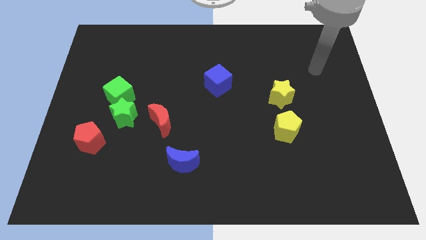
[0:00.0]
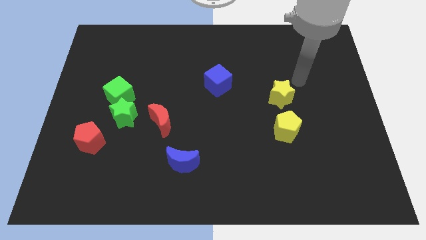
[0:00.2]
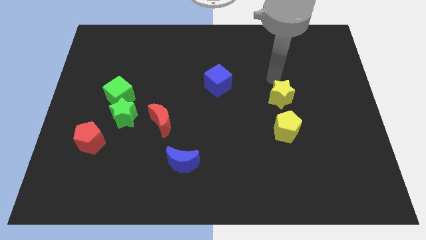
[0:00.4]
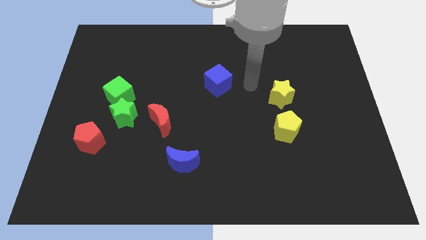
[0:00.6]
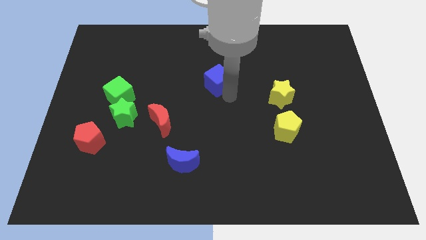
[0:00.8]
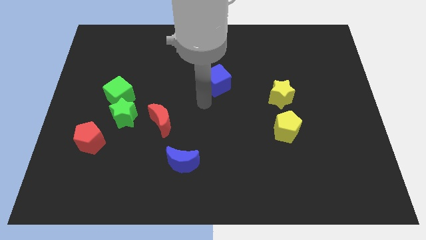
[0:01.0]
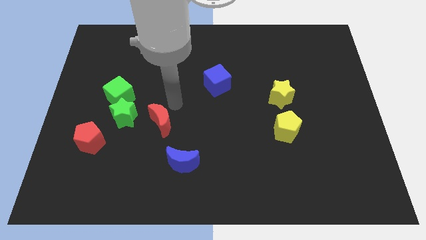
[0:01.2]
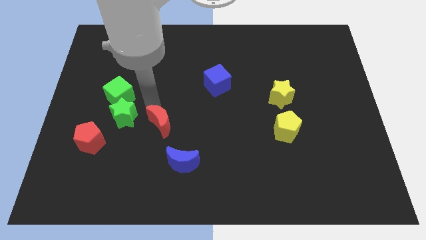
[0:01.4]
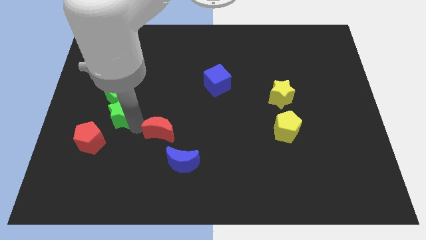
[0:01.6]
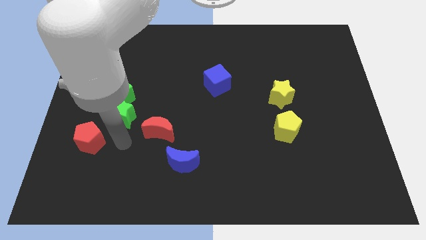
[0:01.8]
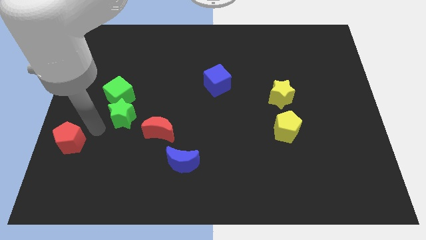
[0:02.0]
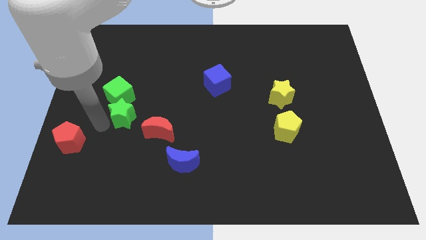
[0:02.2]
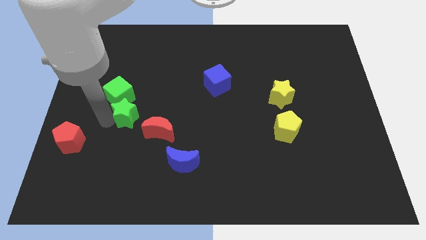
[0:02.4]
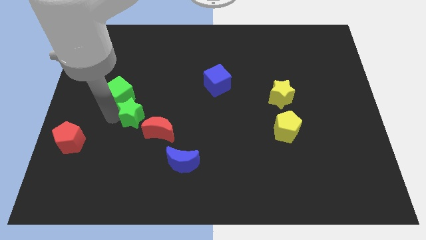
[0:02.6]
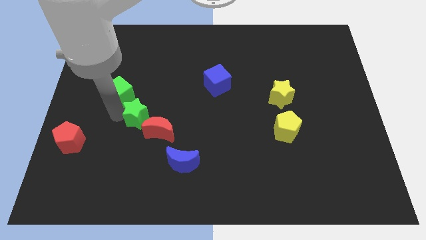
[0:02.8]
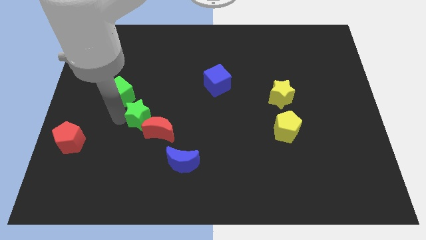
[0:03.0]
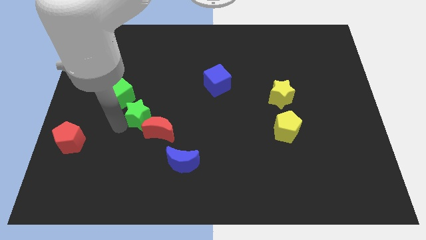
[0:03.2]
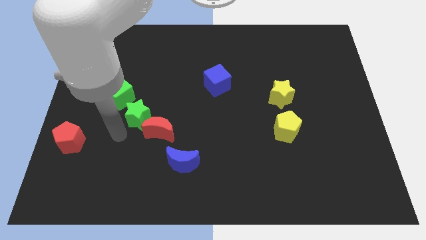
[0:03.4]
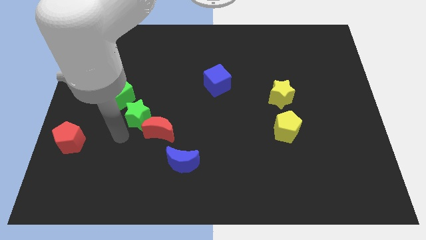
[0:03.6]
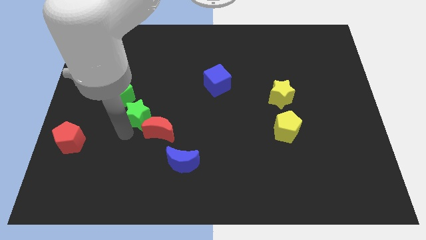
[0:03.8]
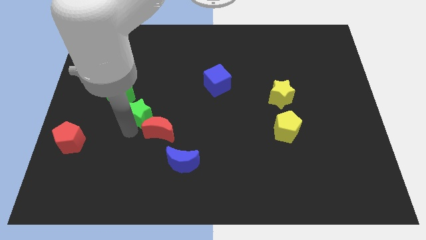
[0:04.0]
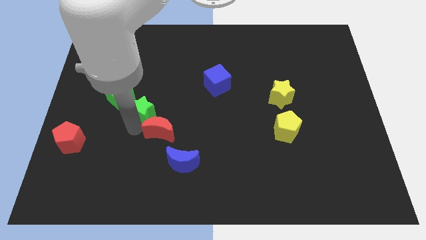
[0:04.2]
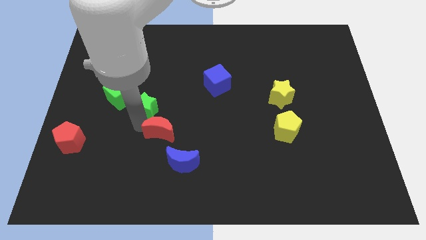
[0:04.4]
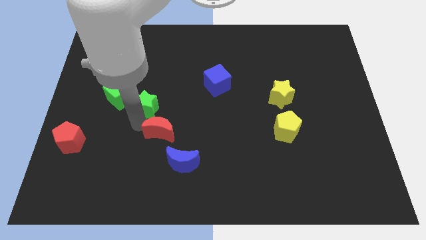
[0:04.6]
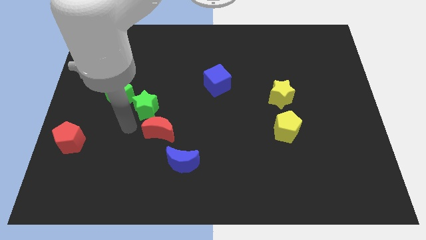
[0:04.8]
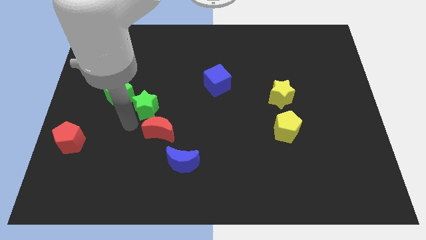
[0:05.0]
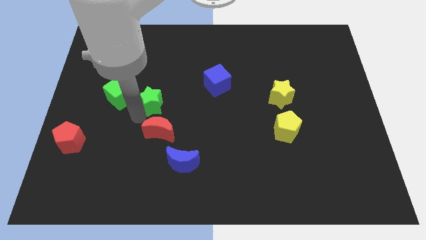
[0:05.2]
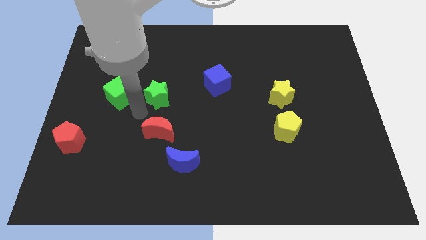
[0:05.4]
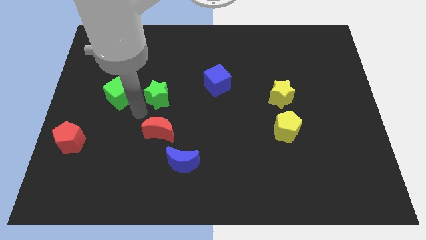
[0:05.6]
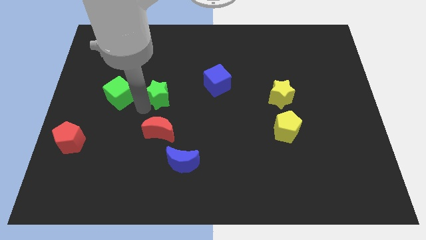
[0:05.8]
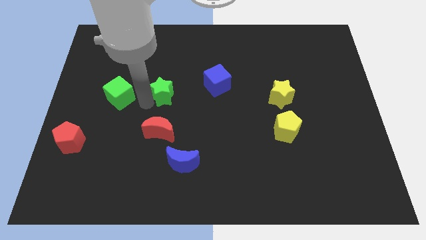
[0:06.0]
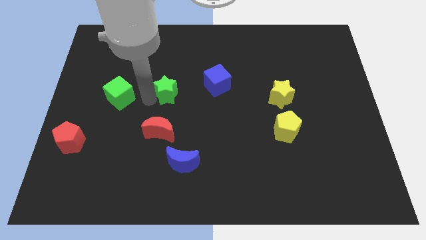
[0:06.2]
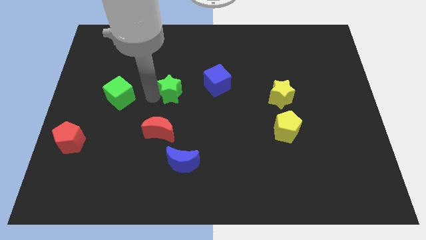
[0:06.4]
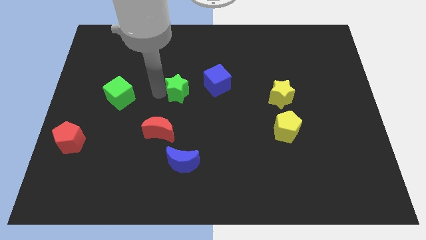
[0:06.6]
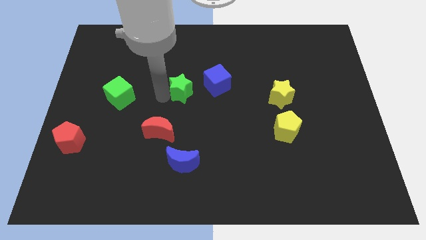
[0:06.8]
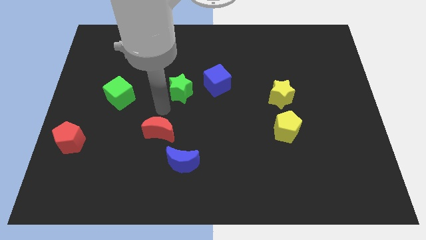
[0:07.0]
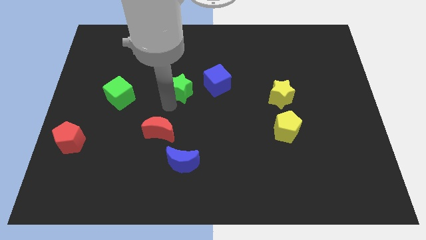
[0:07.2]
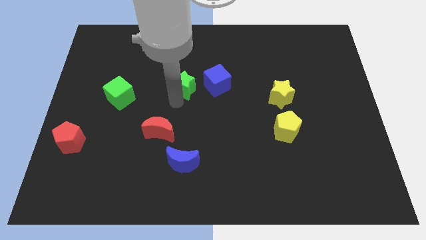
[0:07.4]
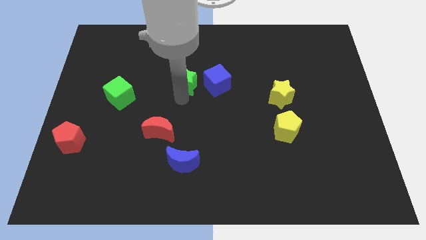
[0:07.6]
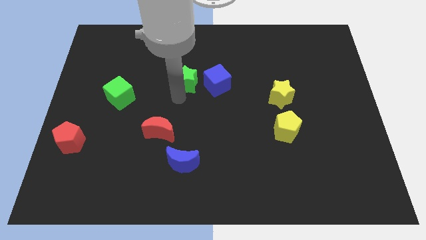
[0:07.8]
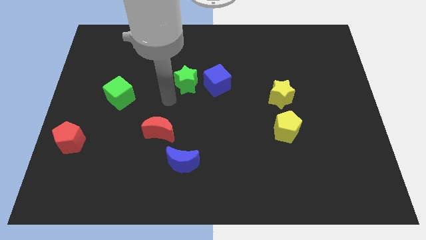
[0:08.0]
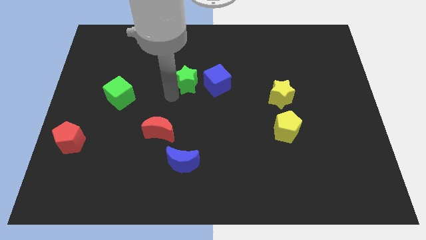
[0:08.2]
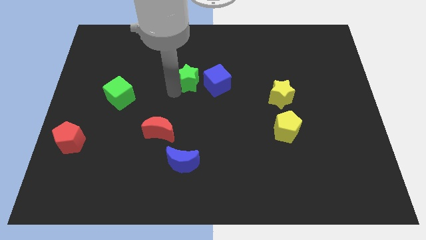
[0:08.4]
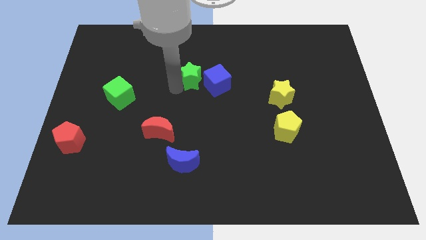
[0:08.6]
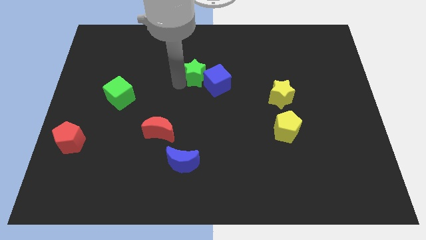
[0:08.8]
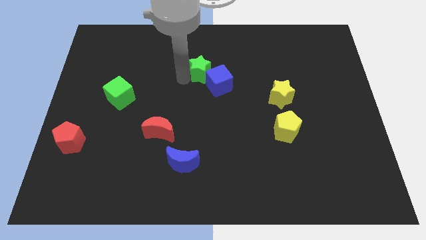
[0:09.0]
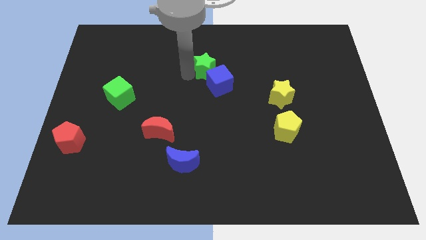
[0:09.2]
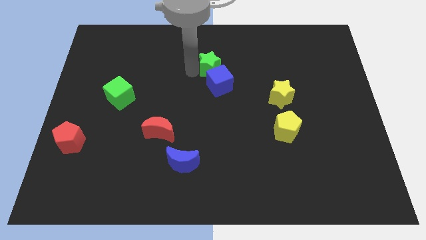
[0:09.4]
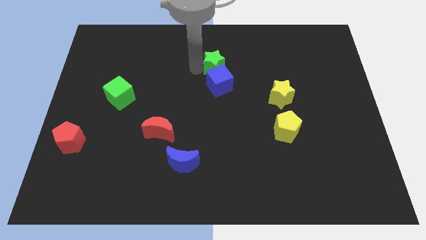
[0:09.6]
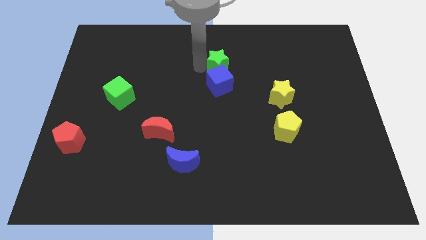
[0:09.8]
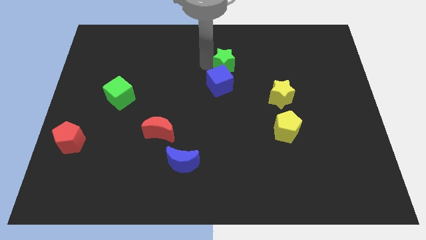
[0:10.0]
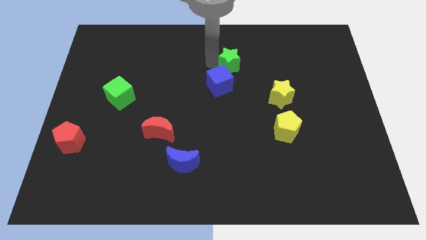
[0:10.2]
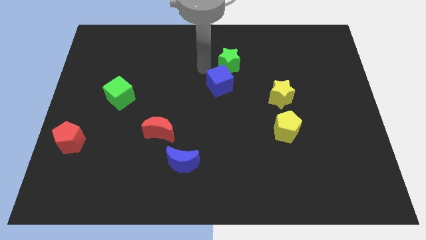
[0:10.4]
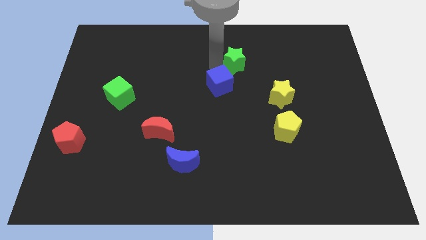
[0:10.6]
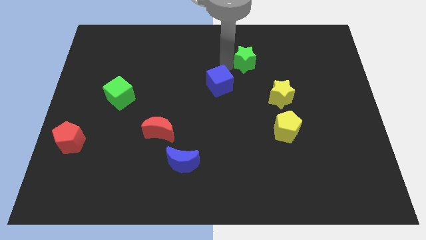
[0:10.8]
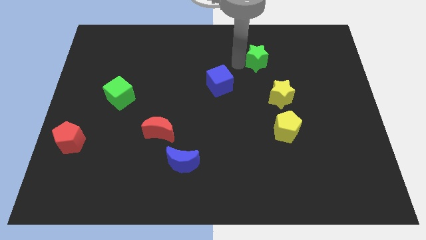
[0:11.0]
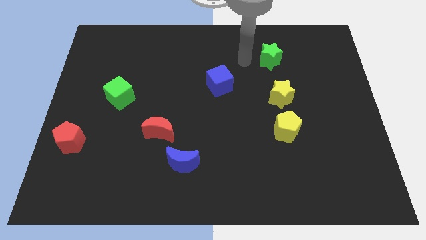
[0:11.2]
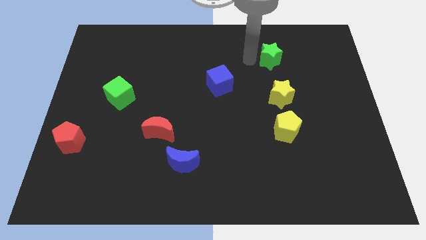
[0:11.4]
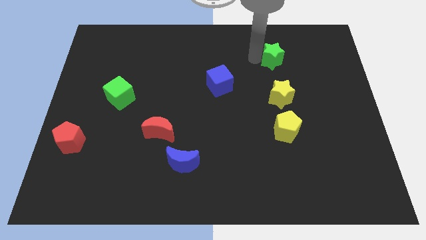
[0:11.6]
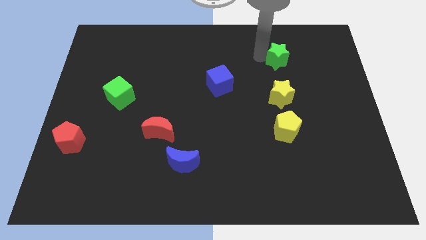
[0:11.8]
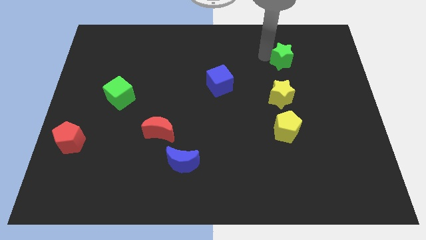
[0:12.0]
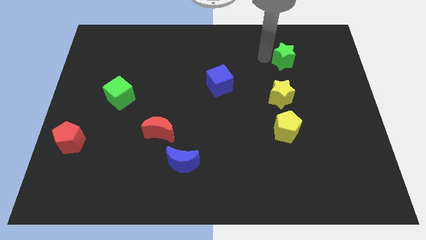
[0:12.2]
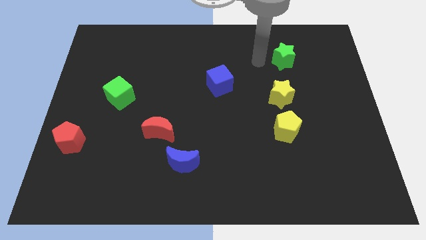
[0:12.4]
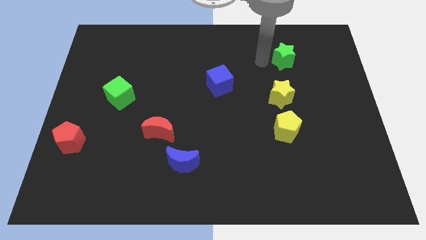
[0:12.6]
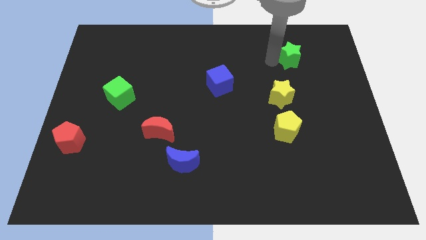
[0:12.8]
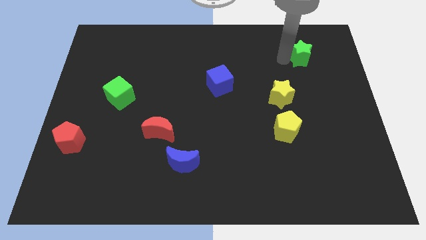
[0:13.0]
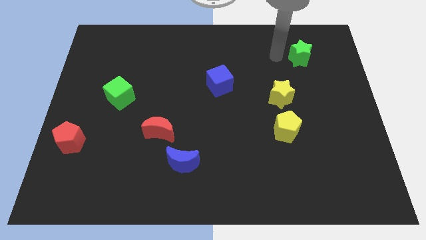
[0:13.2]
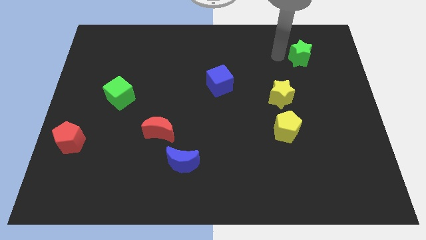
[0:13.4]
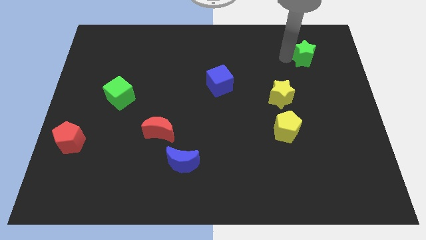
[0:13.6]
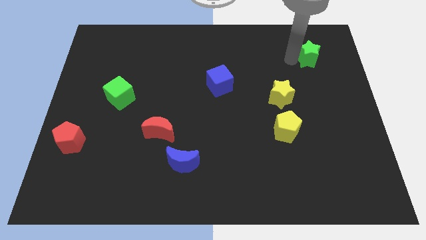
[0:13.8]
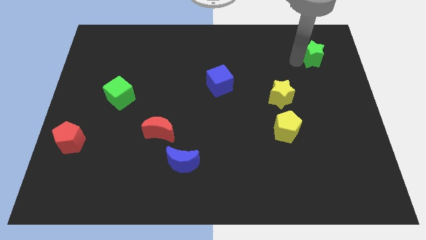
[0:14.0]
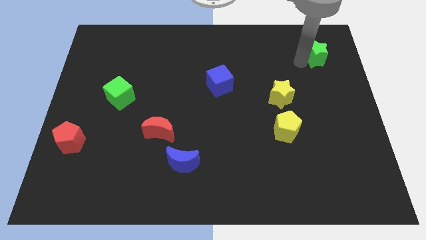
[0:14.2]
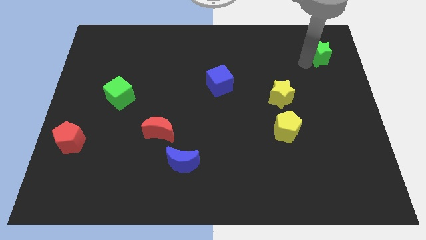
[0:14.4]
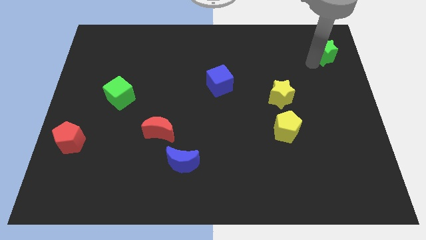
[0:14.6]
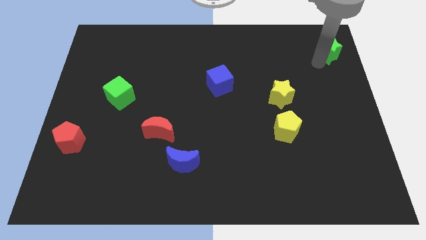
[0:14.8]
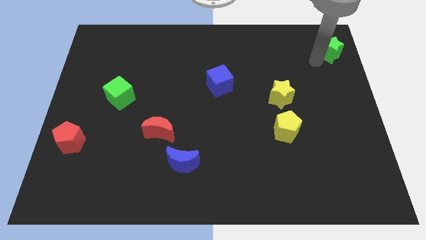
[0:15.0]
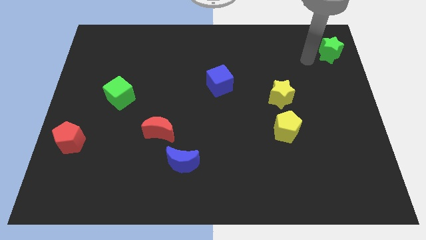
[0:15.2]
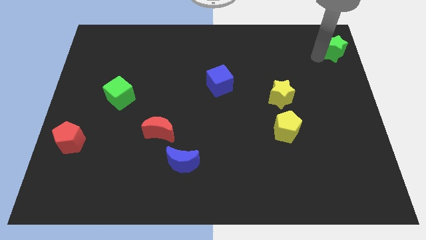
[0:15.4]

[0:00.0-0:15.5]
push the green star to the top right of the board

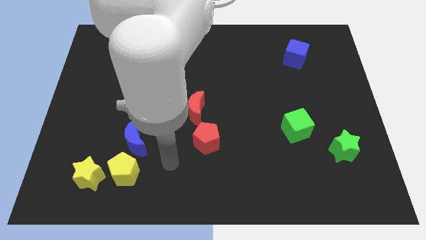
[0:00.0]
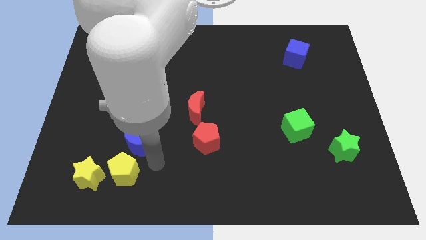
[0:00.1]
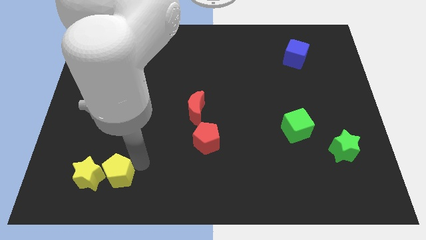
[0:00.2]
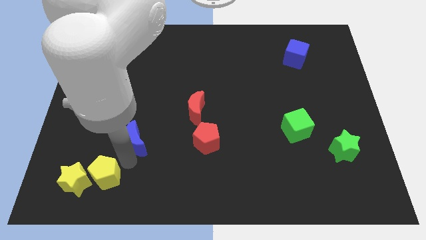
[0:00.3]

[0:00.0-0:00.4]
put the yellow star to the bottom left of the board
